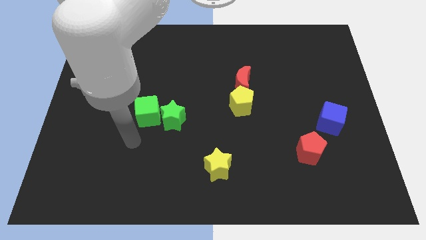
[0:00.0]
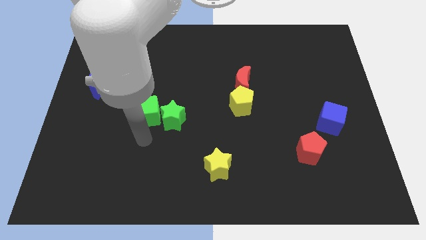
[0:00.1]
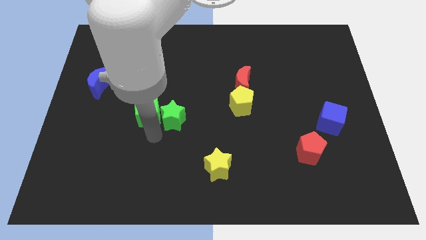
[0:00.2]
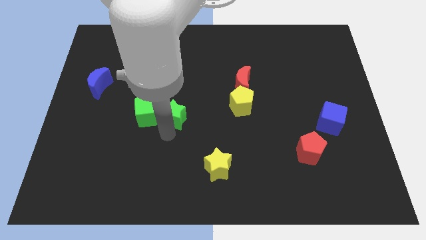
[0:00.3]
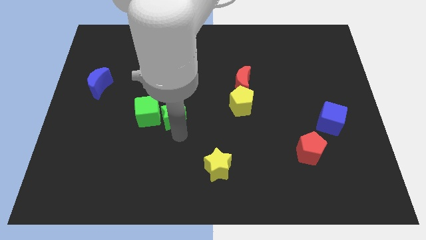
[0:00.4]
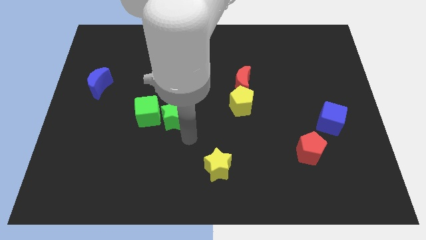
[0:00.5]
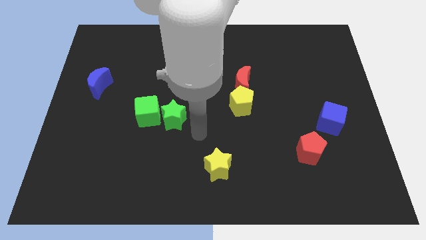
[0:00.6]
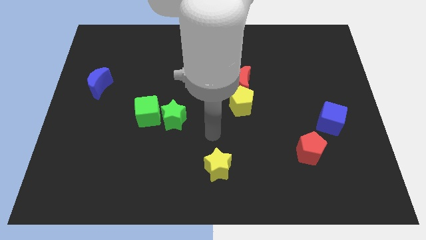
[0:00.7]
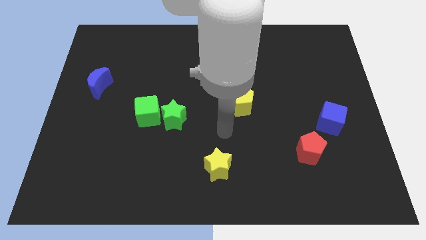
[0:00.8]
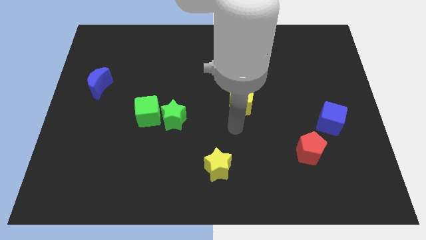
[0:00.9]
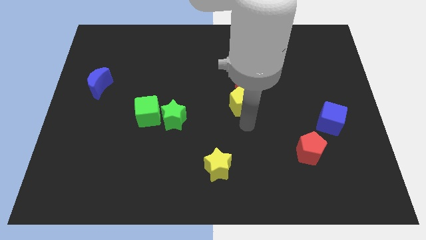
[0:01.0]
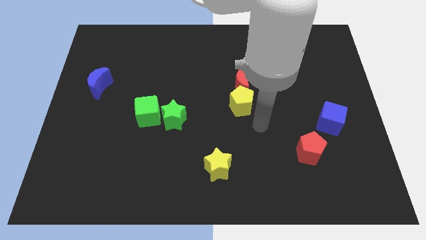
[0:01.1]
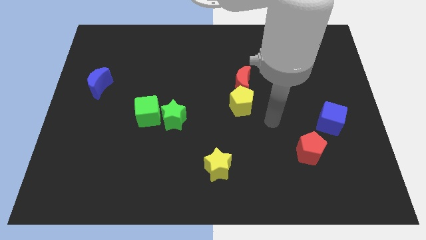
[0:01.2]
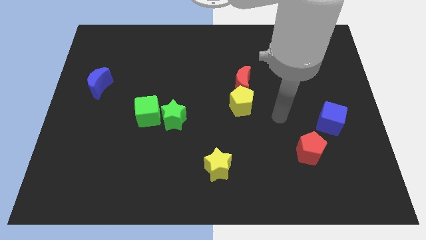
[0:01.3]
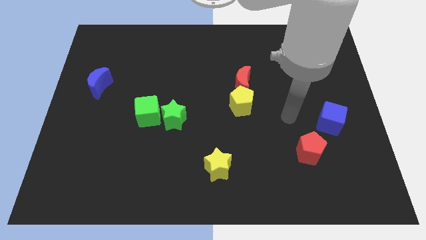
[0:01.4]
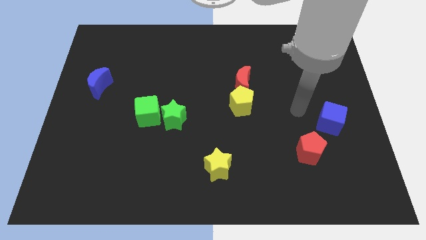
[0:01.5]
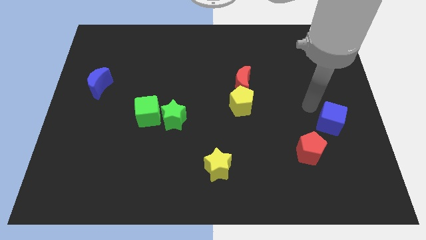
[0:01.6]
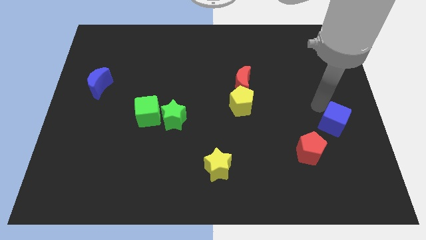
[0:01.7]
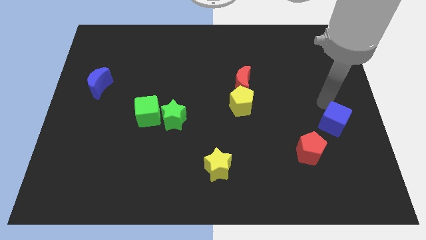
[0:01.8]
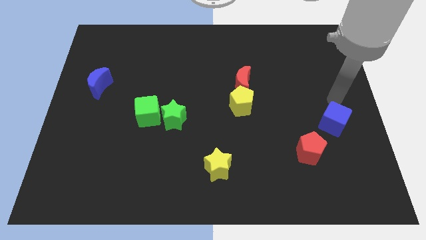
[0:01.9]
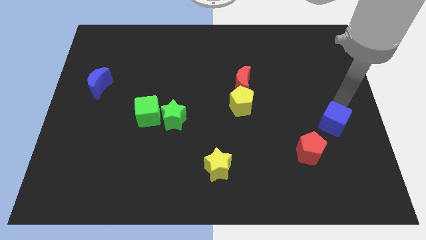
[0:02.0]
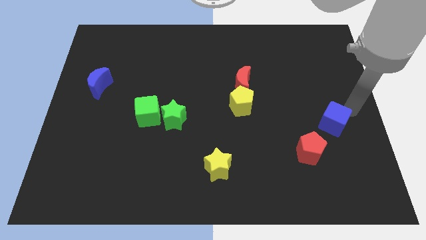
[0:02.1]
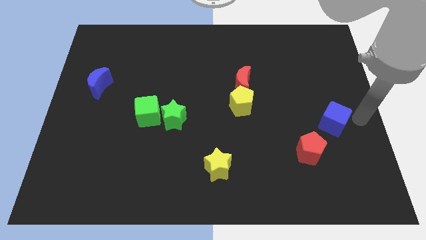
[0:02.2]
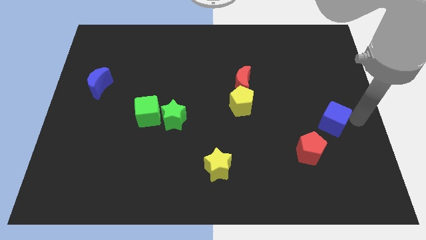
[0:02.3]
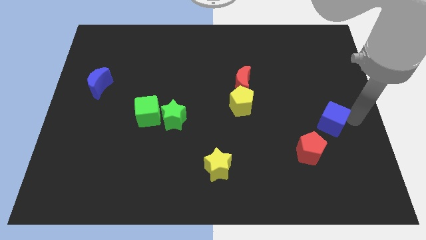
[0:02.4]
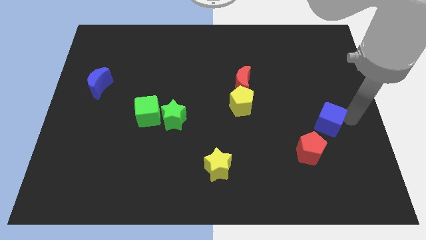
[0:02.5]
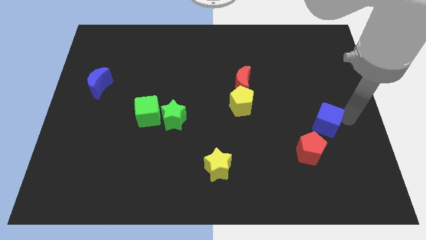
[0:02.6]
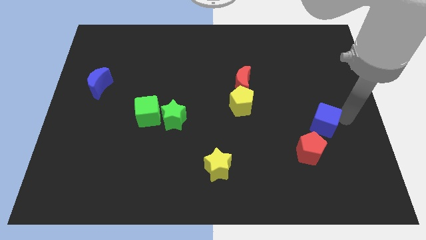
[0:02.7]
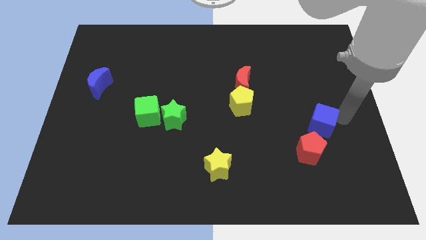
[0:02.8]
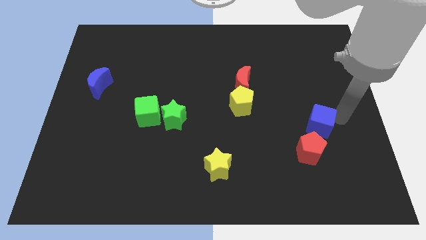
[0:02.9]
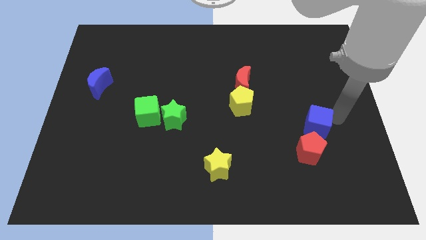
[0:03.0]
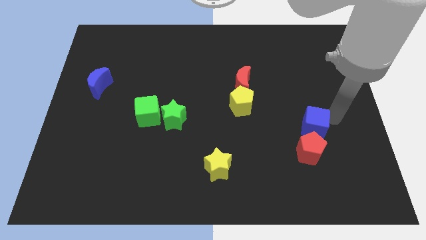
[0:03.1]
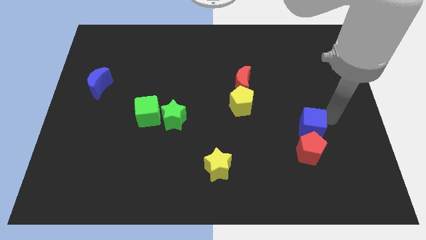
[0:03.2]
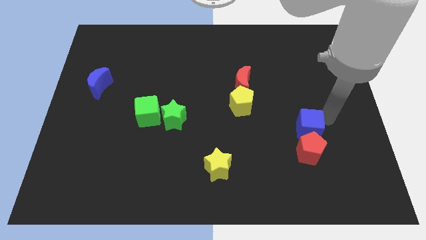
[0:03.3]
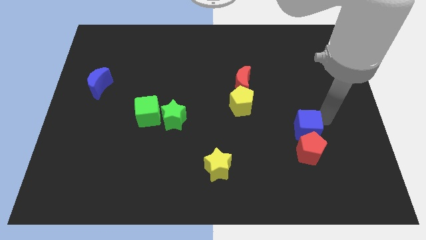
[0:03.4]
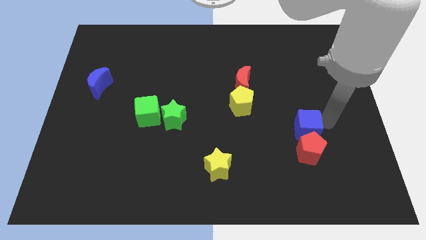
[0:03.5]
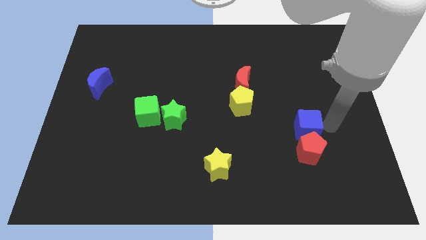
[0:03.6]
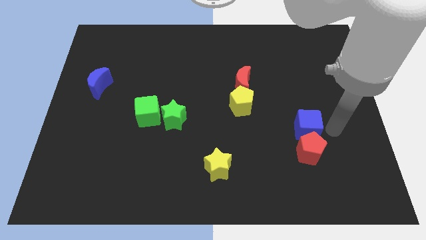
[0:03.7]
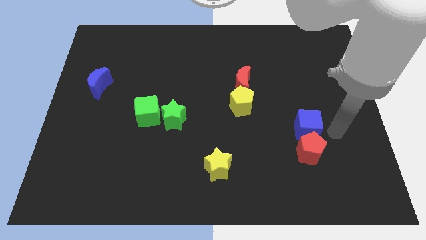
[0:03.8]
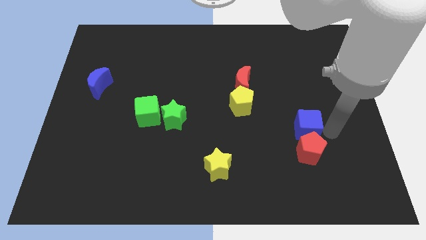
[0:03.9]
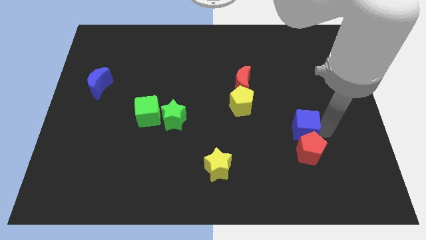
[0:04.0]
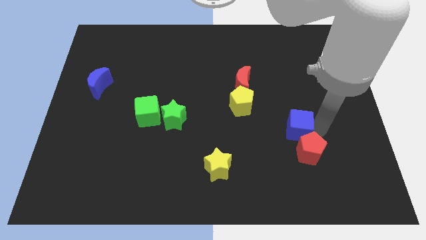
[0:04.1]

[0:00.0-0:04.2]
move the blue cube slightly left

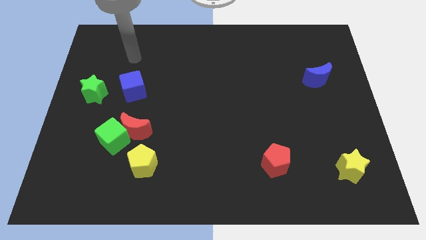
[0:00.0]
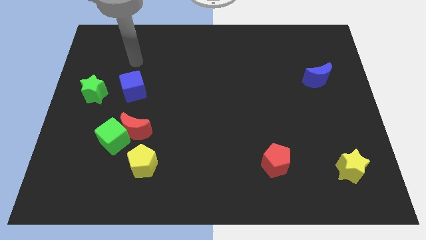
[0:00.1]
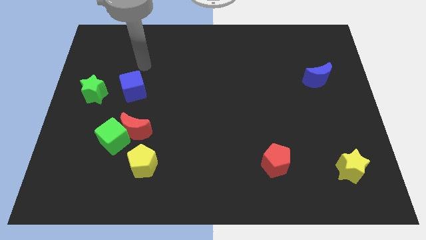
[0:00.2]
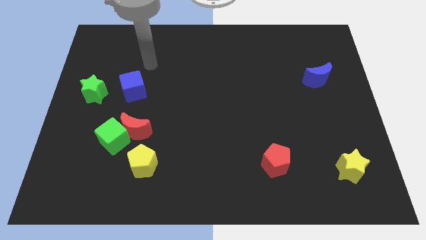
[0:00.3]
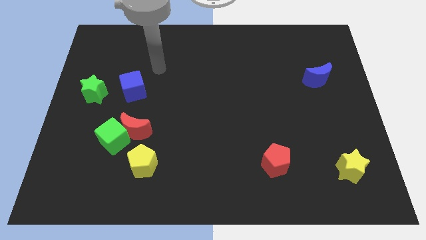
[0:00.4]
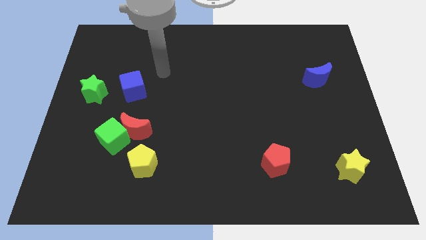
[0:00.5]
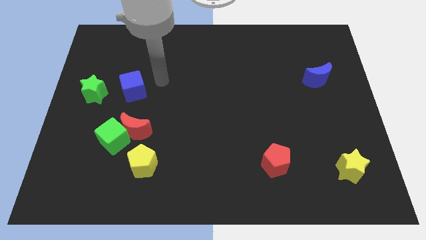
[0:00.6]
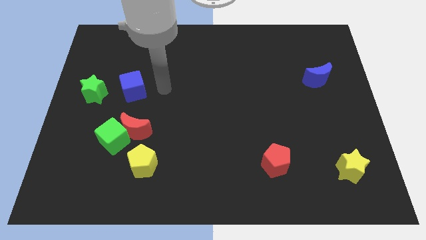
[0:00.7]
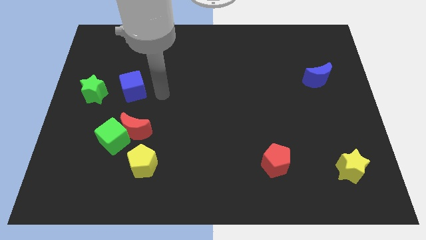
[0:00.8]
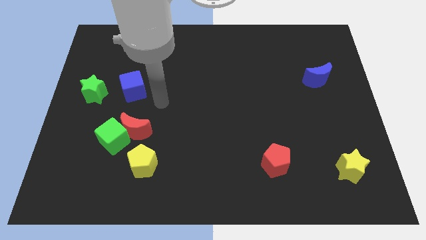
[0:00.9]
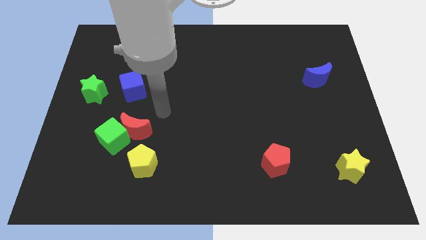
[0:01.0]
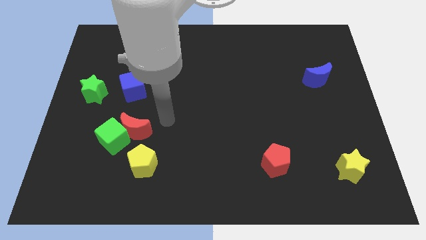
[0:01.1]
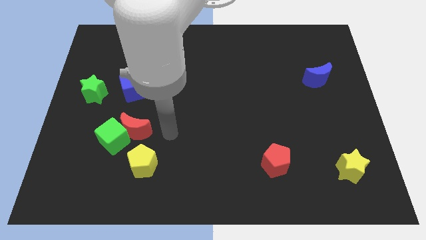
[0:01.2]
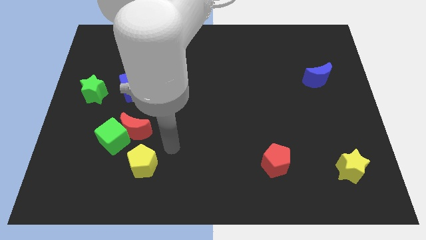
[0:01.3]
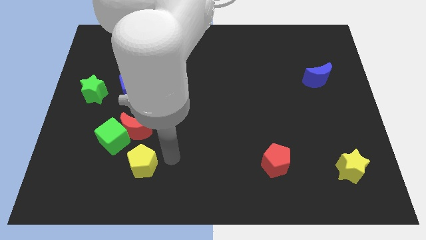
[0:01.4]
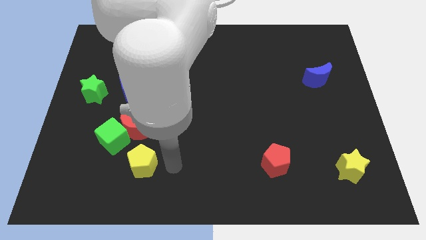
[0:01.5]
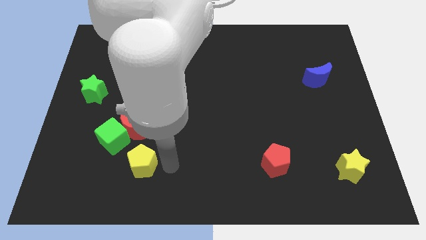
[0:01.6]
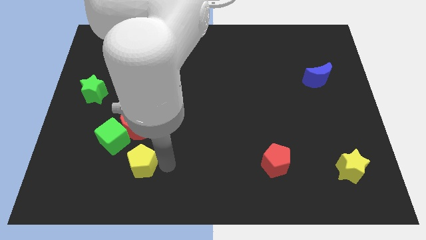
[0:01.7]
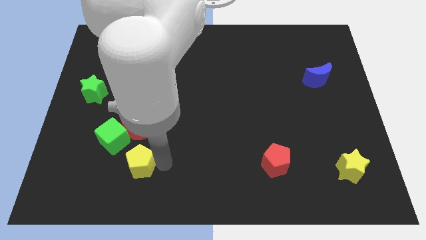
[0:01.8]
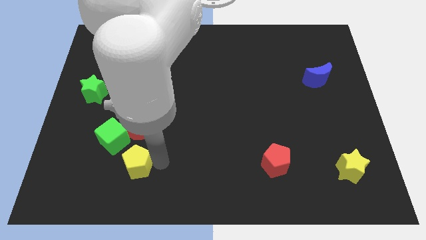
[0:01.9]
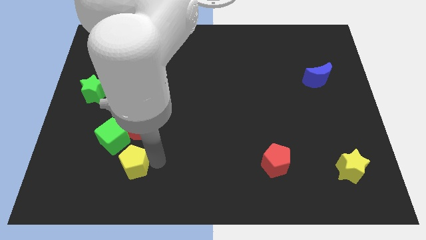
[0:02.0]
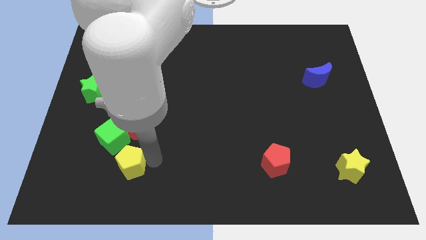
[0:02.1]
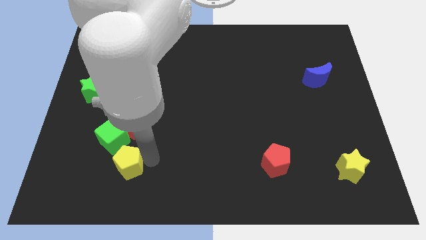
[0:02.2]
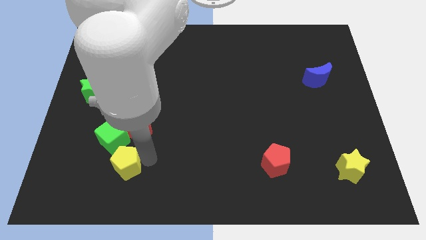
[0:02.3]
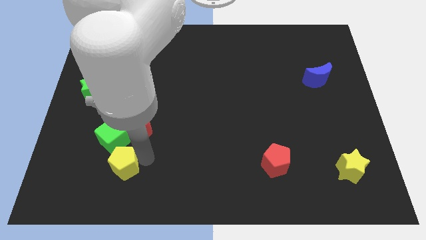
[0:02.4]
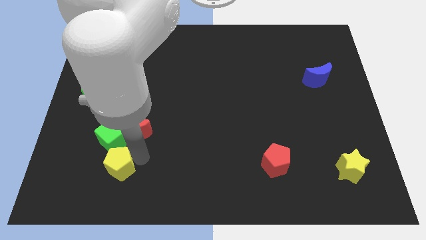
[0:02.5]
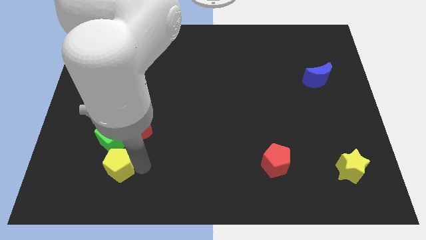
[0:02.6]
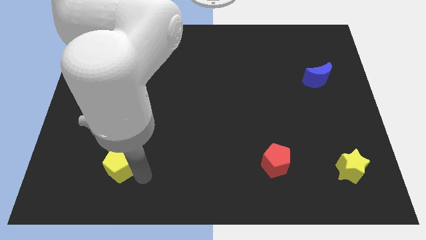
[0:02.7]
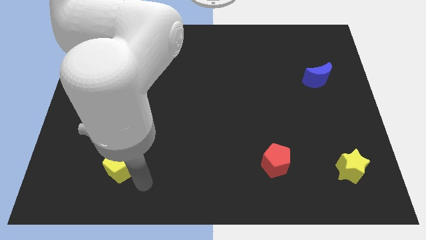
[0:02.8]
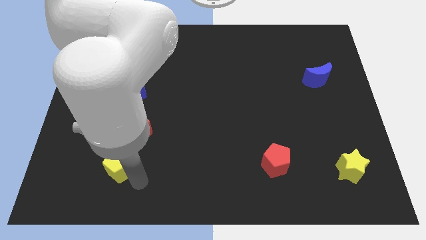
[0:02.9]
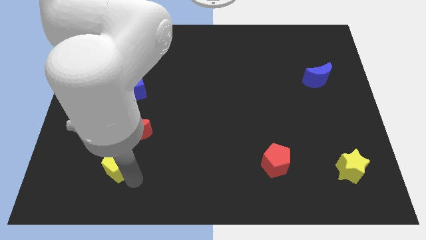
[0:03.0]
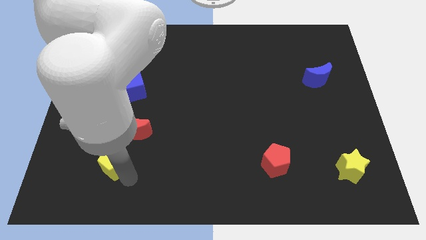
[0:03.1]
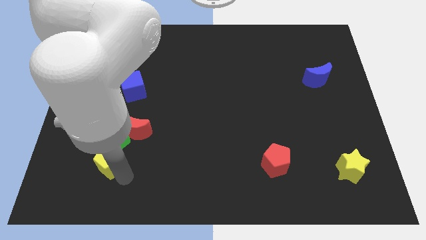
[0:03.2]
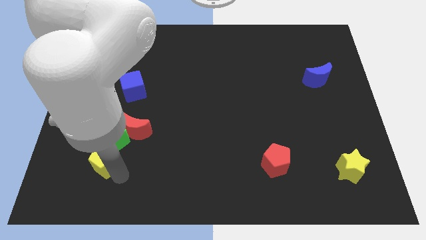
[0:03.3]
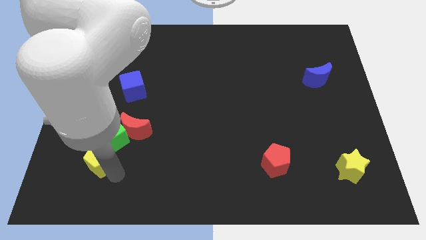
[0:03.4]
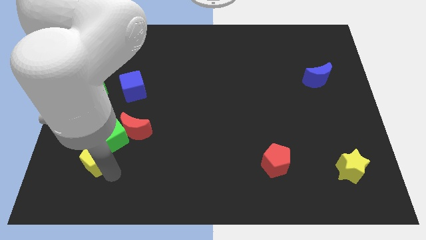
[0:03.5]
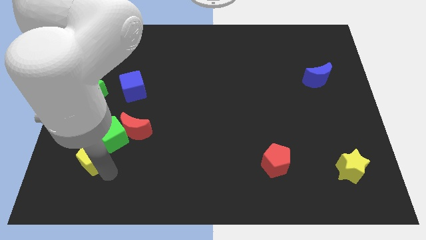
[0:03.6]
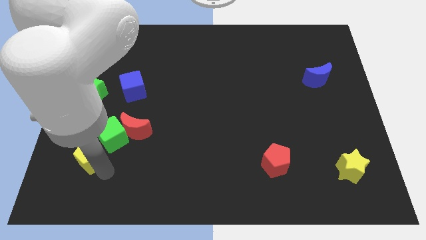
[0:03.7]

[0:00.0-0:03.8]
slightly move the yellow pentagon upwards and then left

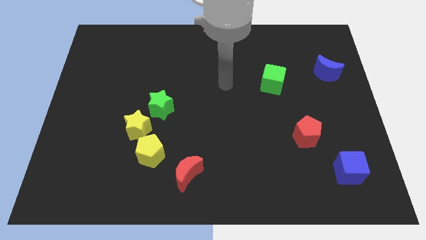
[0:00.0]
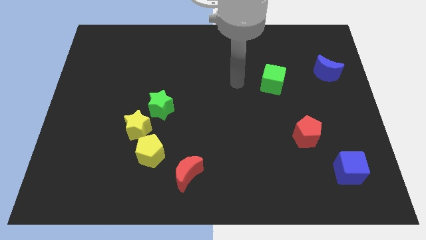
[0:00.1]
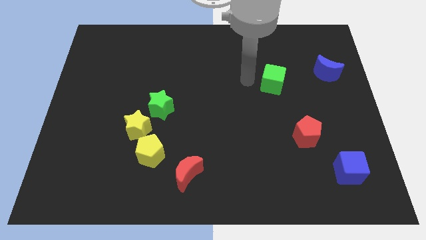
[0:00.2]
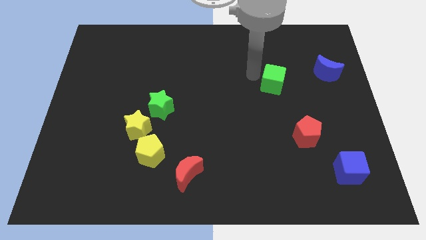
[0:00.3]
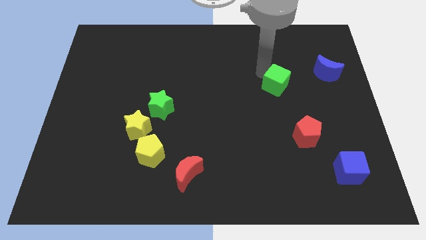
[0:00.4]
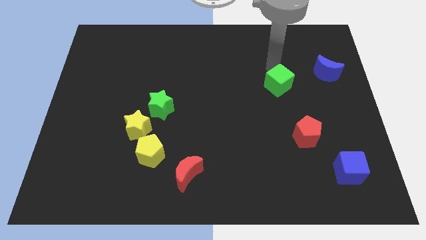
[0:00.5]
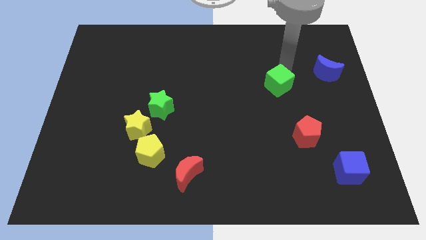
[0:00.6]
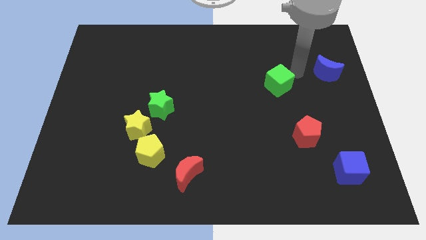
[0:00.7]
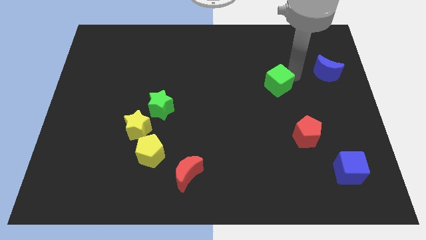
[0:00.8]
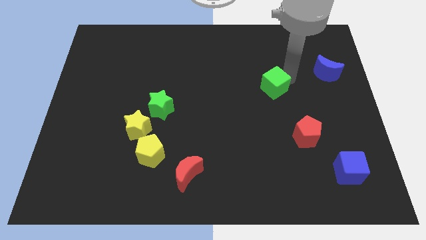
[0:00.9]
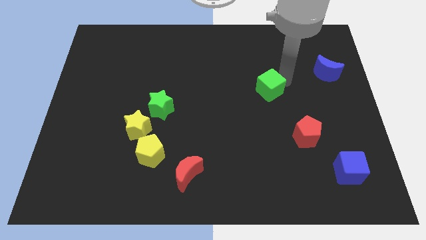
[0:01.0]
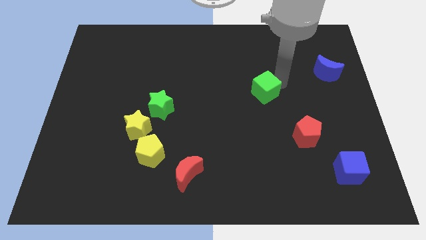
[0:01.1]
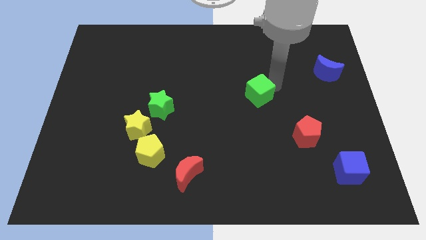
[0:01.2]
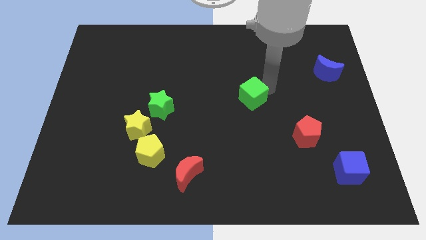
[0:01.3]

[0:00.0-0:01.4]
slightly move the green cube down and then to the left
